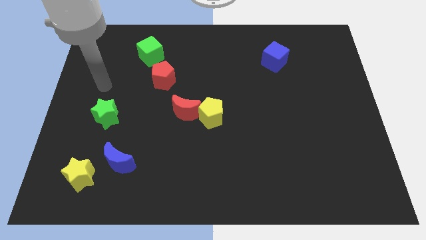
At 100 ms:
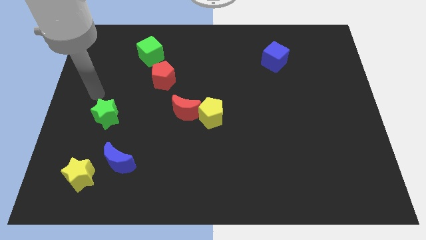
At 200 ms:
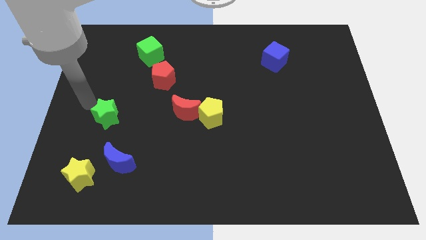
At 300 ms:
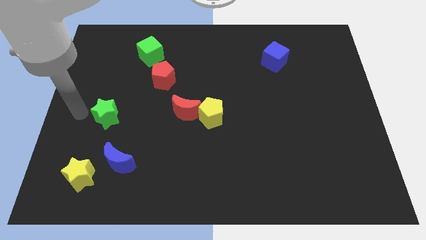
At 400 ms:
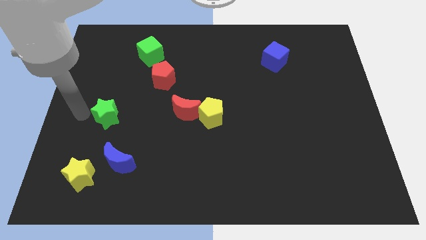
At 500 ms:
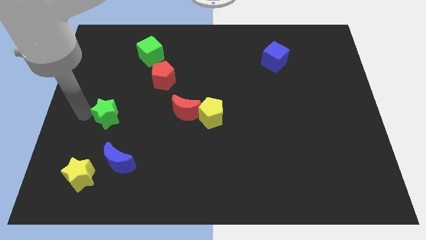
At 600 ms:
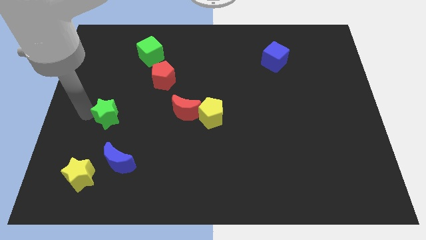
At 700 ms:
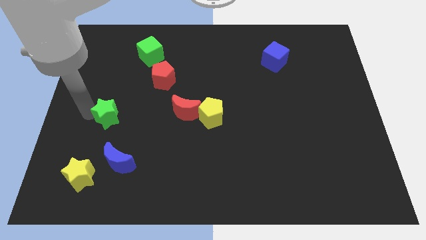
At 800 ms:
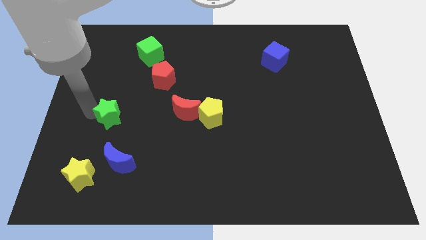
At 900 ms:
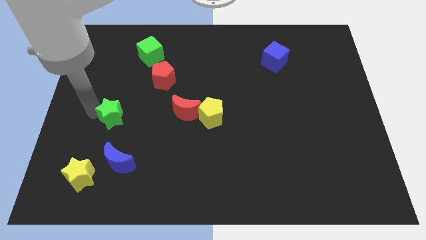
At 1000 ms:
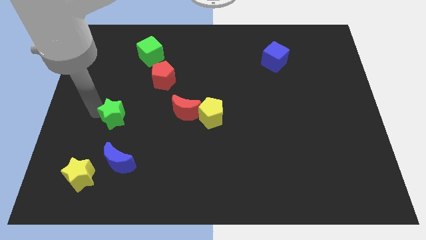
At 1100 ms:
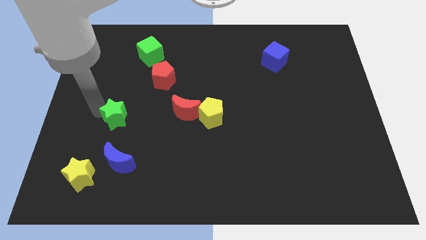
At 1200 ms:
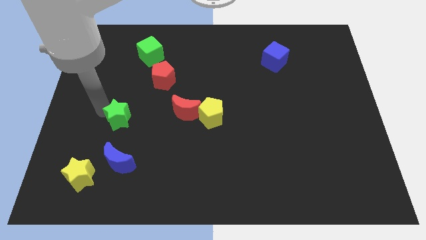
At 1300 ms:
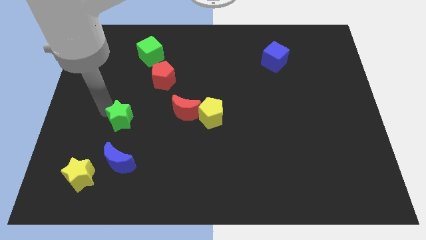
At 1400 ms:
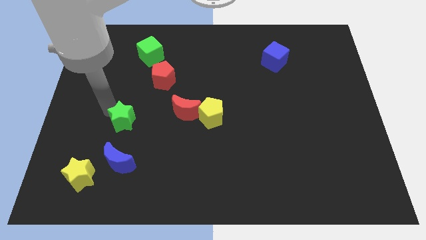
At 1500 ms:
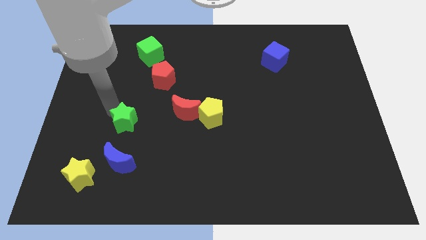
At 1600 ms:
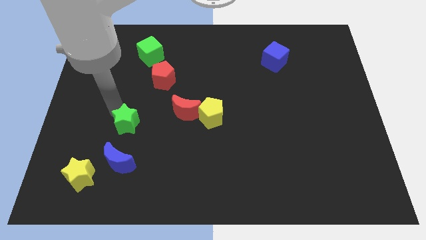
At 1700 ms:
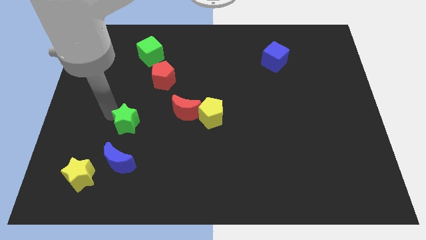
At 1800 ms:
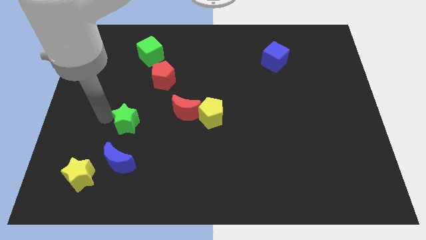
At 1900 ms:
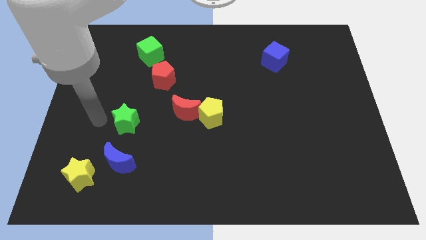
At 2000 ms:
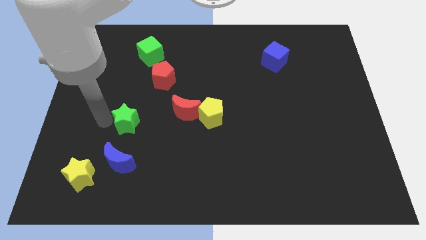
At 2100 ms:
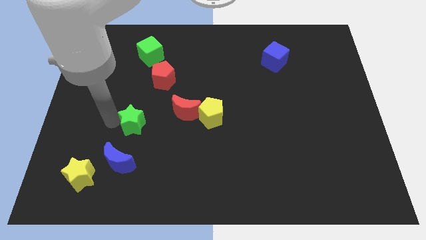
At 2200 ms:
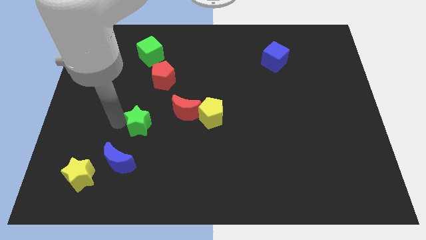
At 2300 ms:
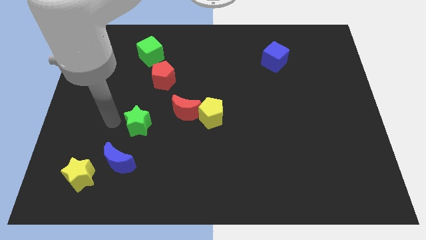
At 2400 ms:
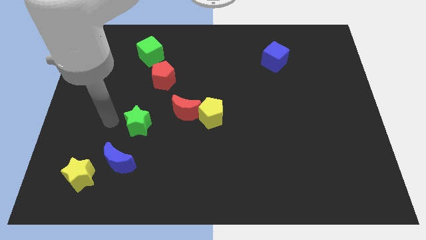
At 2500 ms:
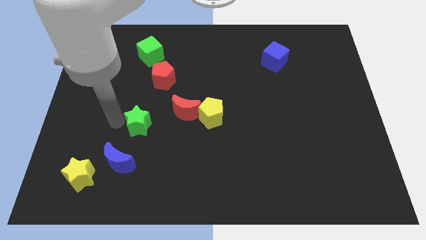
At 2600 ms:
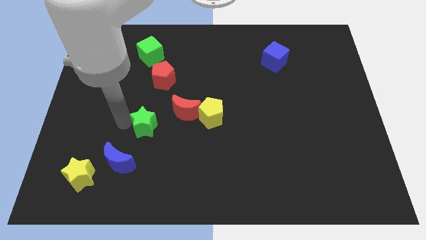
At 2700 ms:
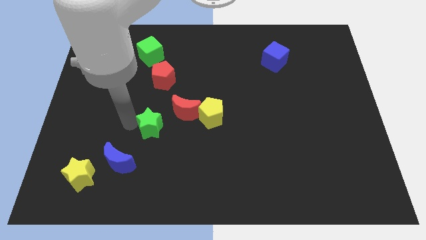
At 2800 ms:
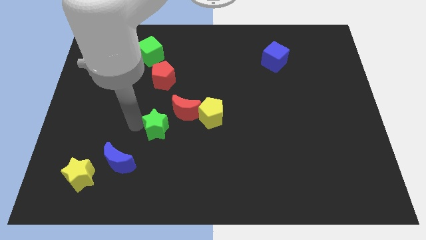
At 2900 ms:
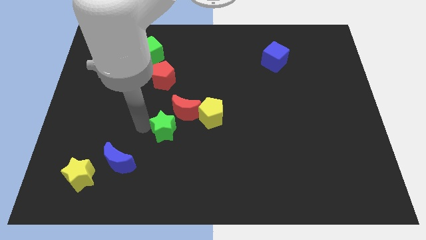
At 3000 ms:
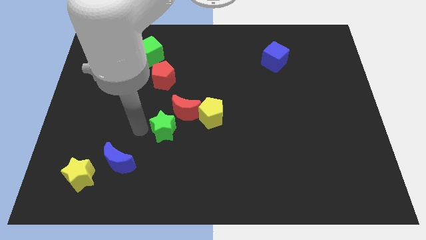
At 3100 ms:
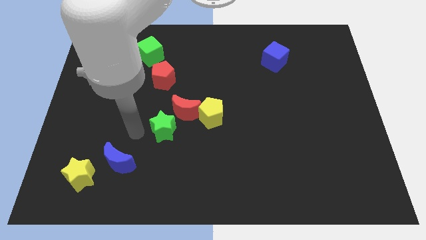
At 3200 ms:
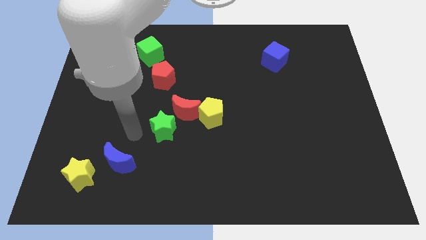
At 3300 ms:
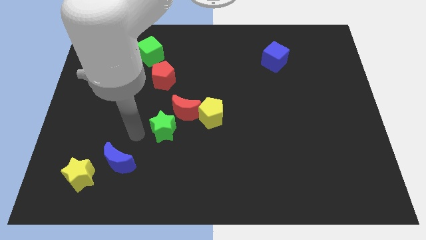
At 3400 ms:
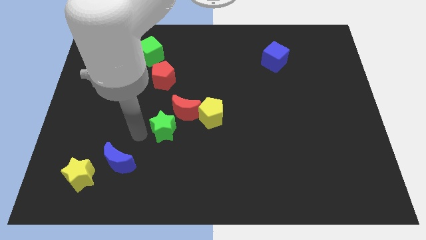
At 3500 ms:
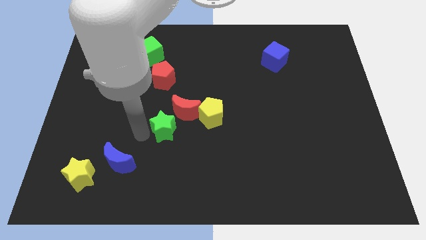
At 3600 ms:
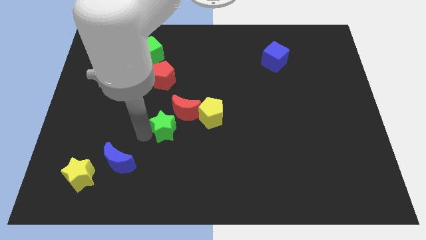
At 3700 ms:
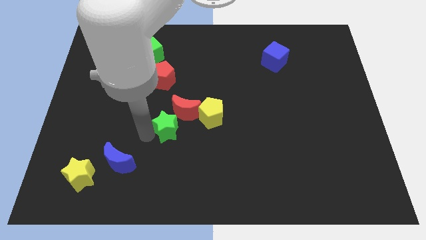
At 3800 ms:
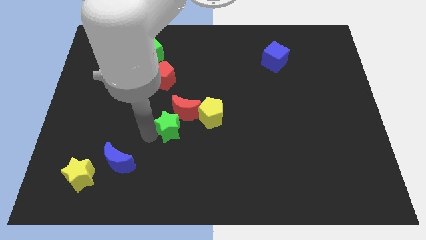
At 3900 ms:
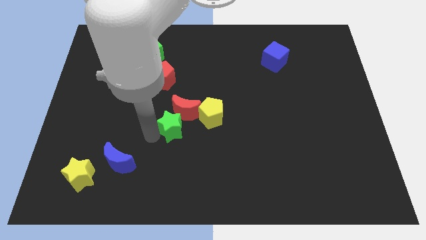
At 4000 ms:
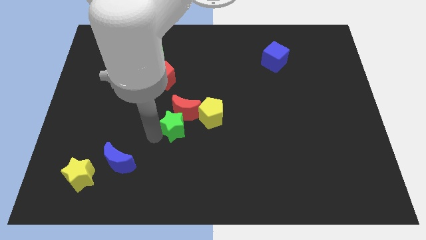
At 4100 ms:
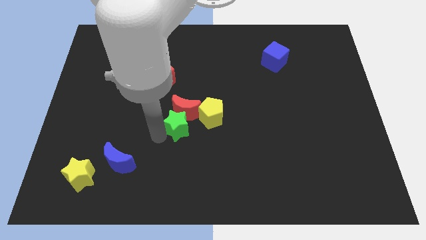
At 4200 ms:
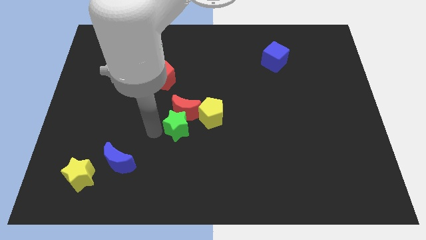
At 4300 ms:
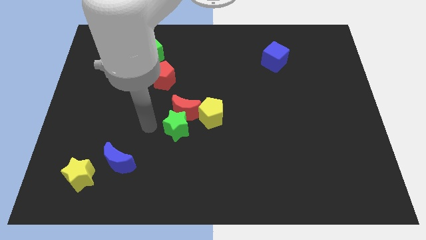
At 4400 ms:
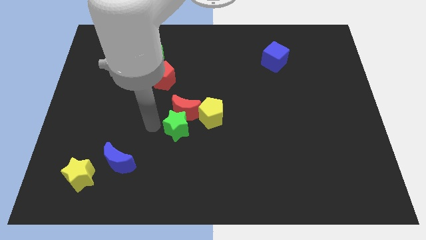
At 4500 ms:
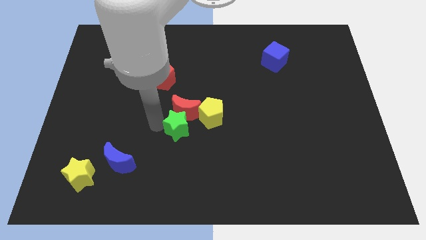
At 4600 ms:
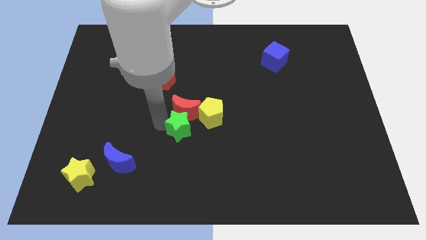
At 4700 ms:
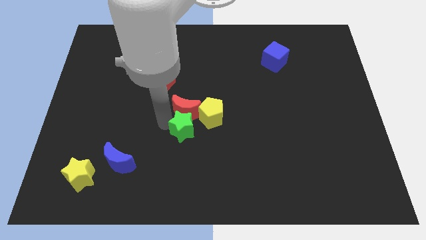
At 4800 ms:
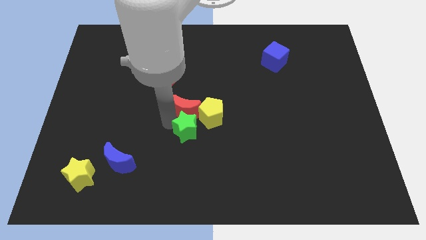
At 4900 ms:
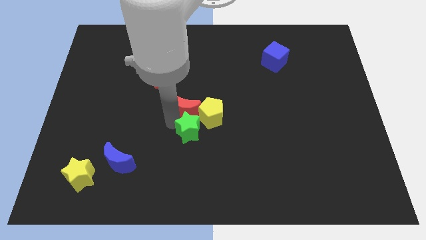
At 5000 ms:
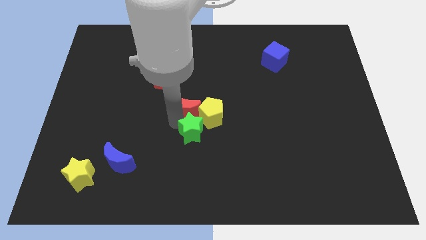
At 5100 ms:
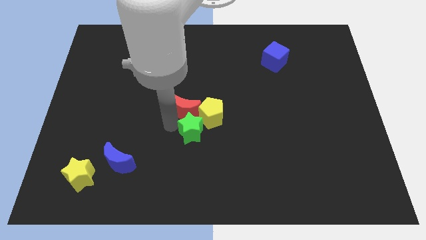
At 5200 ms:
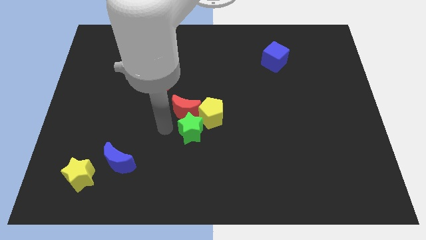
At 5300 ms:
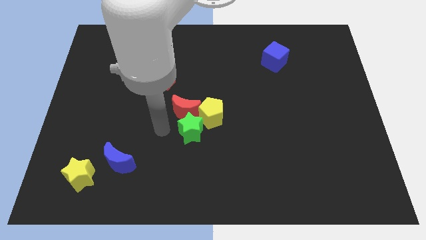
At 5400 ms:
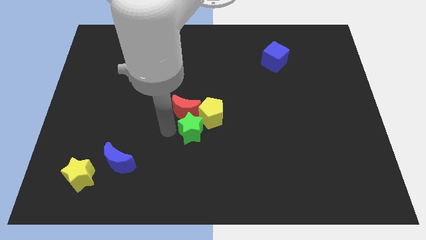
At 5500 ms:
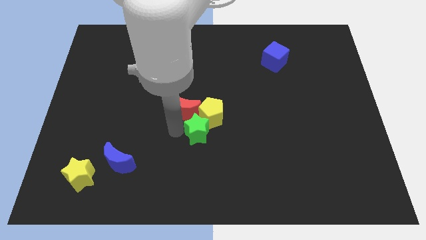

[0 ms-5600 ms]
move the green star to the right

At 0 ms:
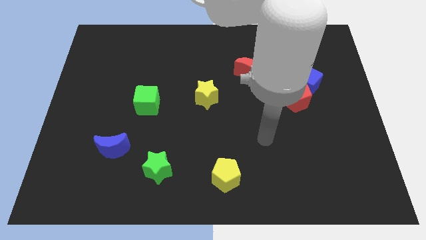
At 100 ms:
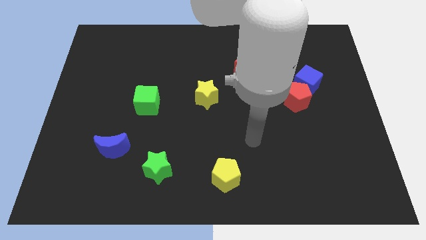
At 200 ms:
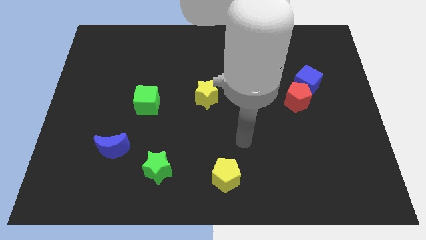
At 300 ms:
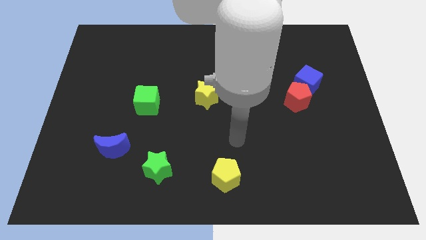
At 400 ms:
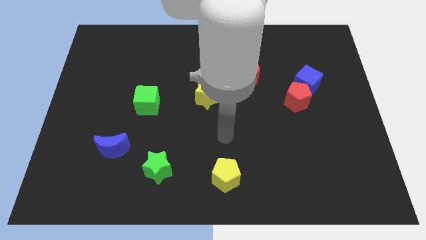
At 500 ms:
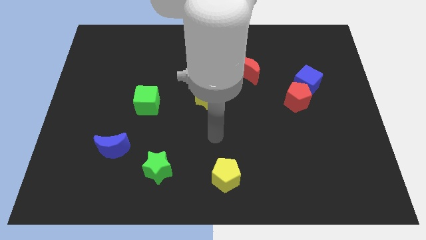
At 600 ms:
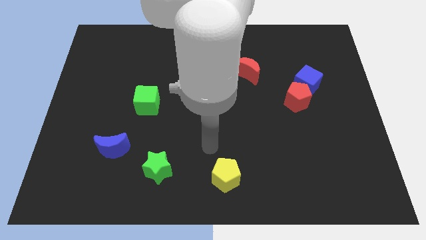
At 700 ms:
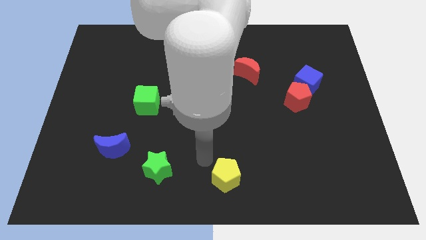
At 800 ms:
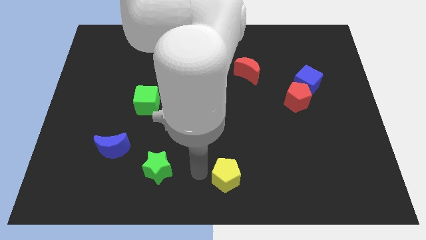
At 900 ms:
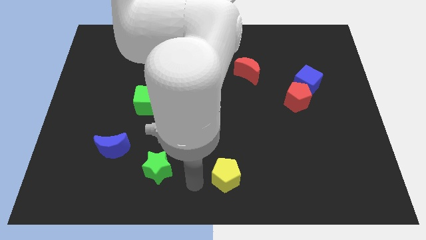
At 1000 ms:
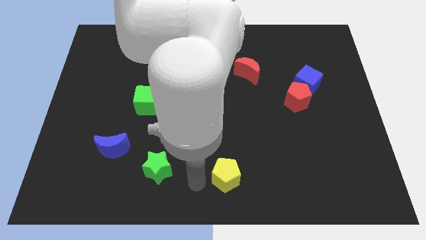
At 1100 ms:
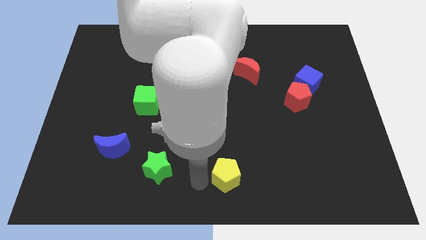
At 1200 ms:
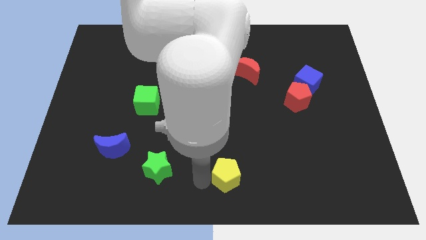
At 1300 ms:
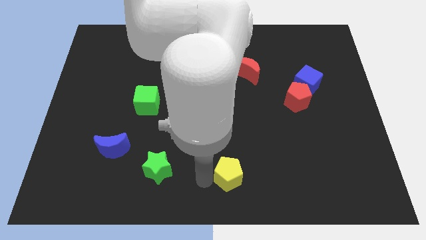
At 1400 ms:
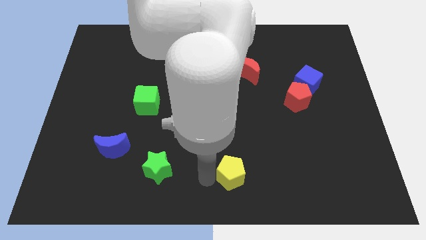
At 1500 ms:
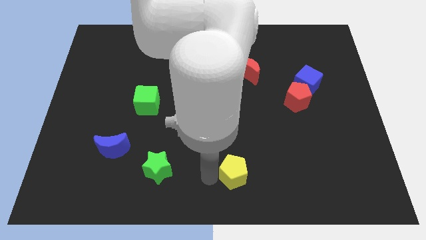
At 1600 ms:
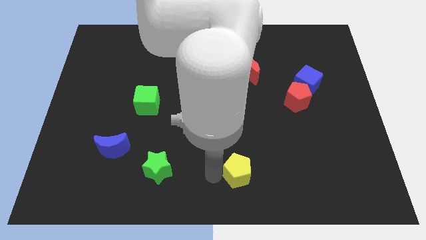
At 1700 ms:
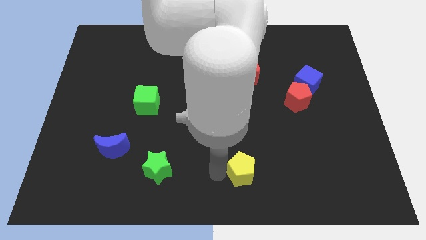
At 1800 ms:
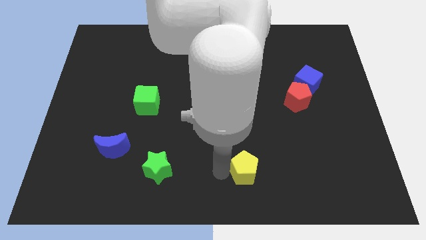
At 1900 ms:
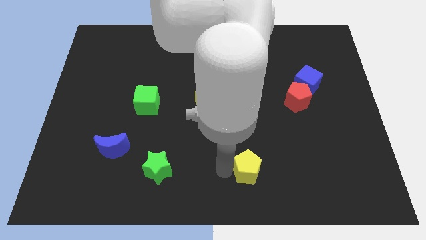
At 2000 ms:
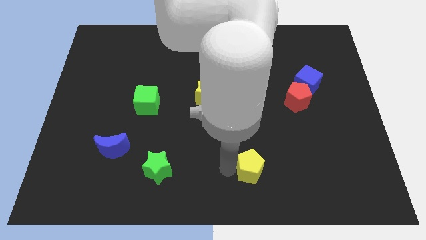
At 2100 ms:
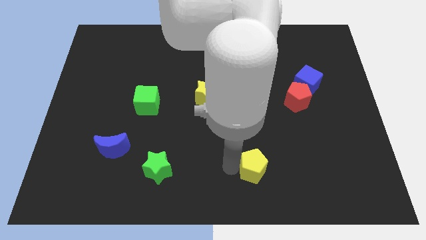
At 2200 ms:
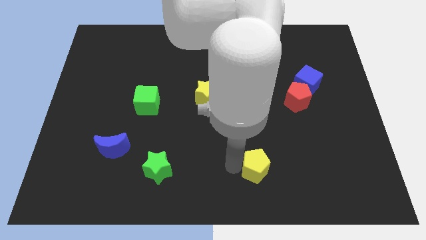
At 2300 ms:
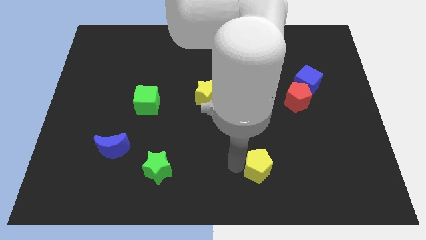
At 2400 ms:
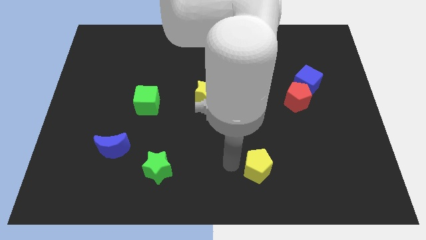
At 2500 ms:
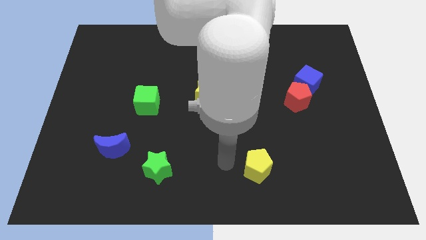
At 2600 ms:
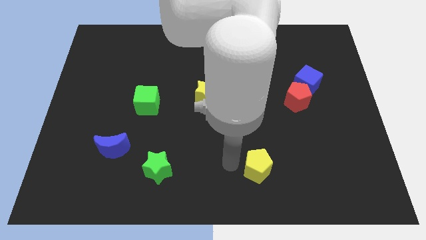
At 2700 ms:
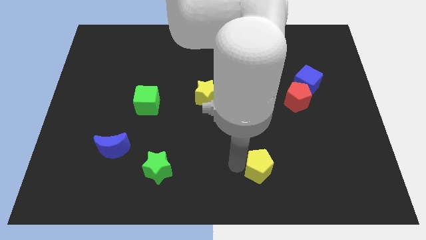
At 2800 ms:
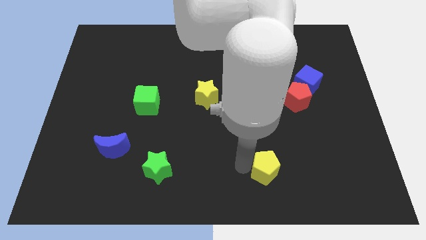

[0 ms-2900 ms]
slide the yellow pentagon a little bit right
